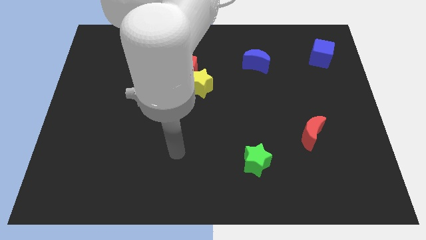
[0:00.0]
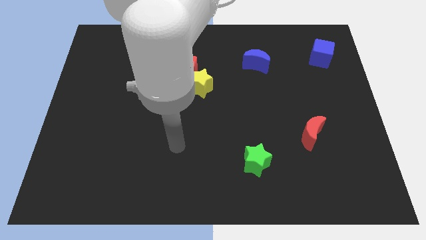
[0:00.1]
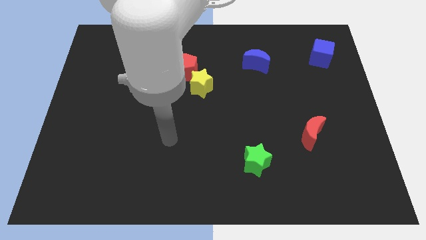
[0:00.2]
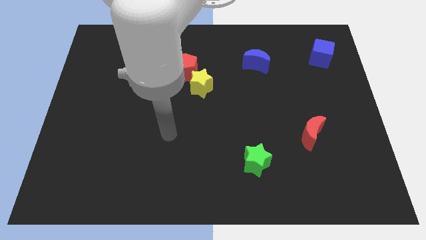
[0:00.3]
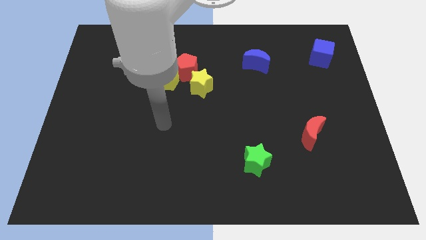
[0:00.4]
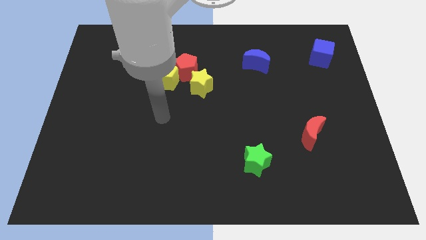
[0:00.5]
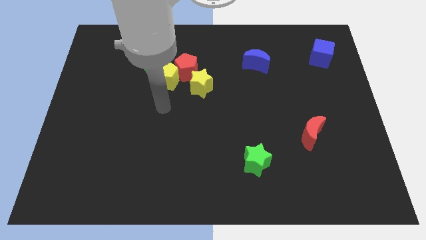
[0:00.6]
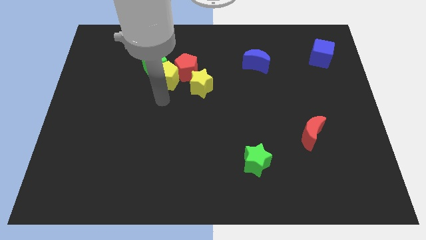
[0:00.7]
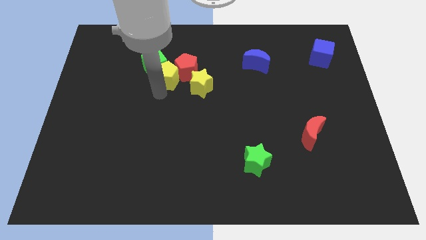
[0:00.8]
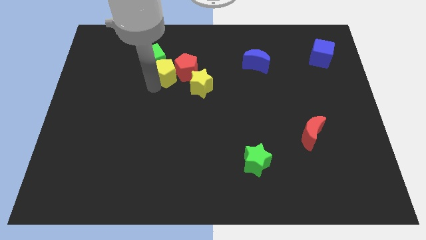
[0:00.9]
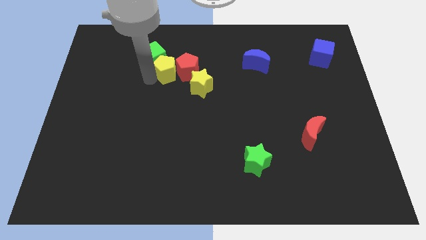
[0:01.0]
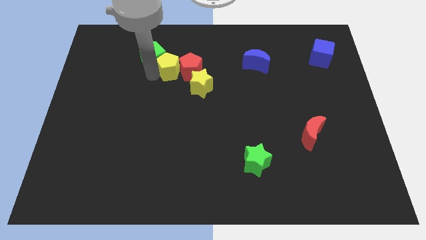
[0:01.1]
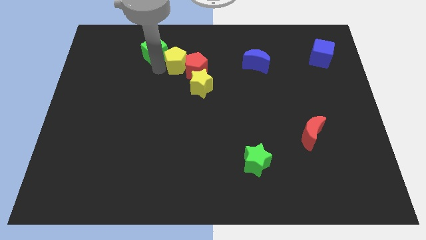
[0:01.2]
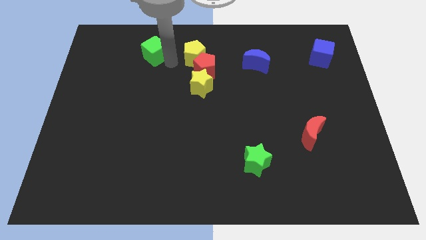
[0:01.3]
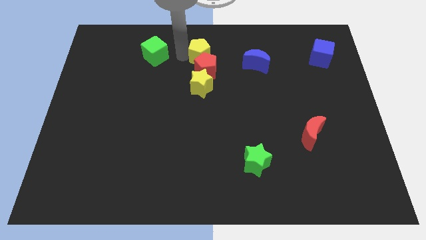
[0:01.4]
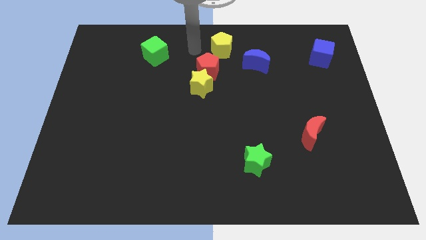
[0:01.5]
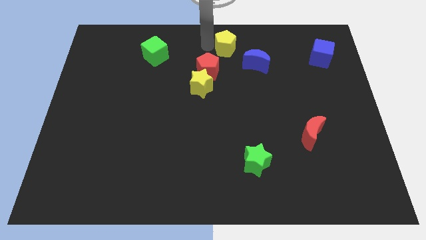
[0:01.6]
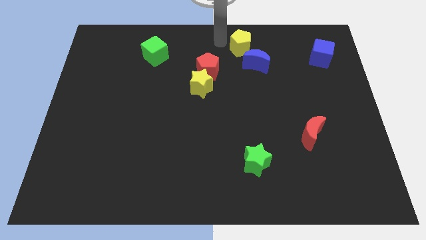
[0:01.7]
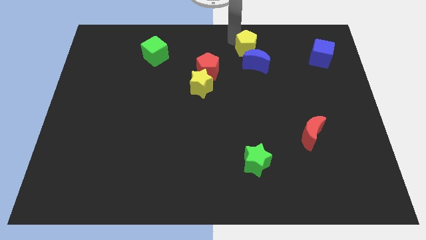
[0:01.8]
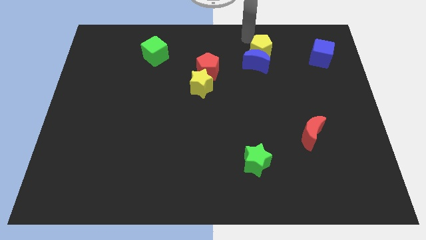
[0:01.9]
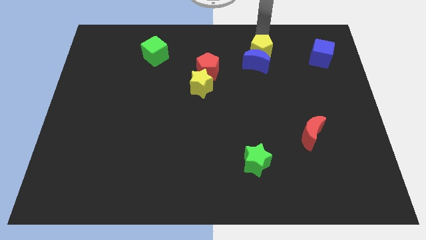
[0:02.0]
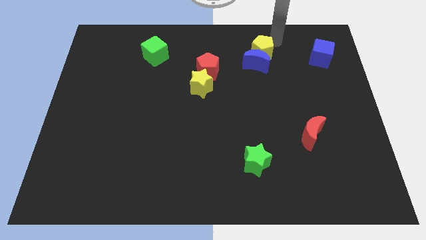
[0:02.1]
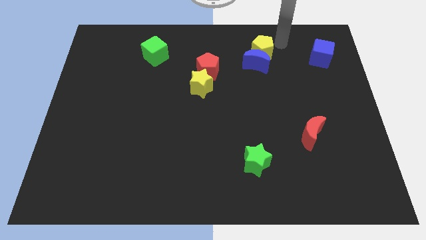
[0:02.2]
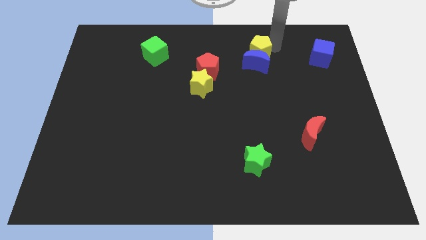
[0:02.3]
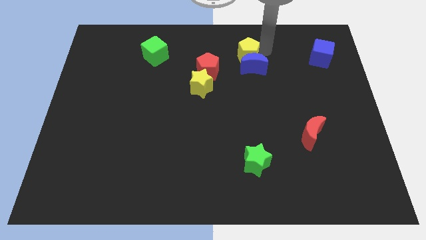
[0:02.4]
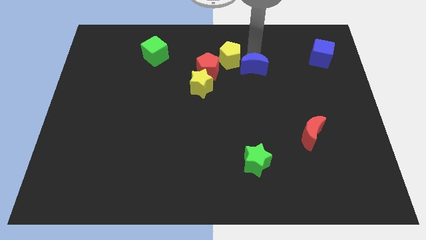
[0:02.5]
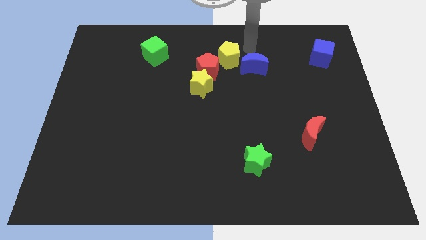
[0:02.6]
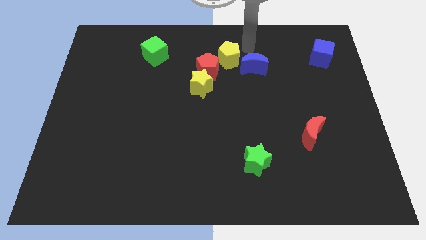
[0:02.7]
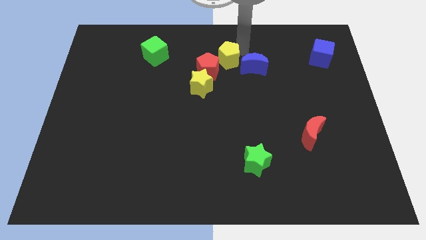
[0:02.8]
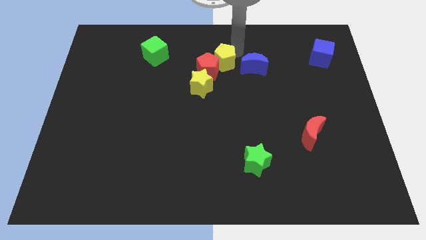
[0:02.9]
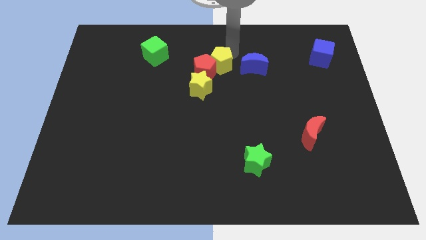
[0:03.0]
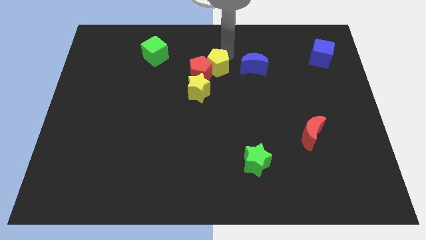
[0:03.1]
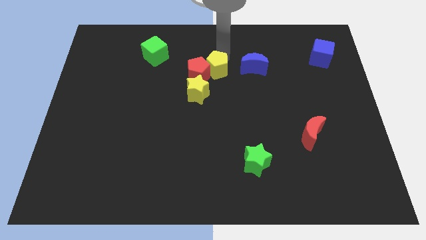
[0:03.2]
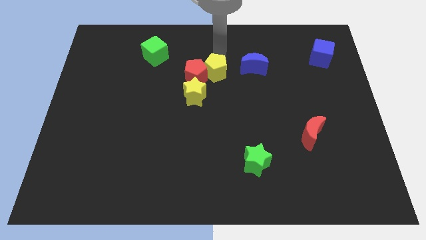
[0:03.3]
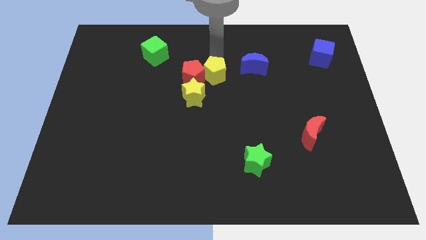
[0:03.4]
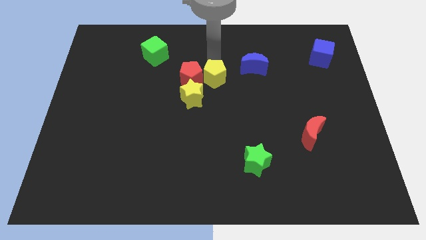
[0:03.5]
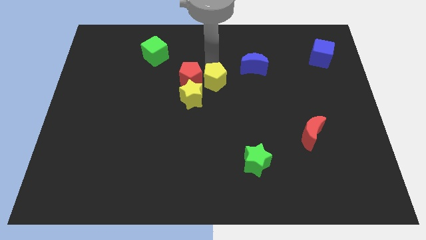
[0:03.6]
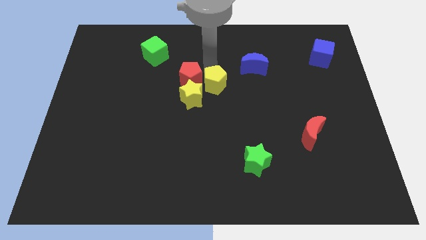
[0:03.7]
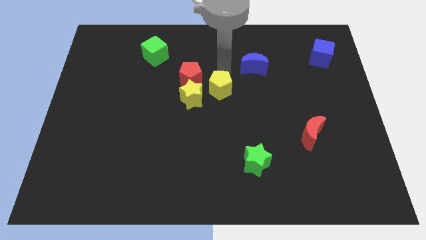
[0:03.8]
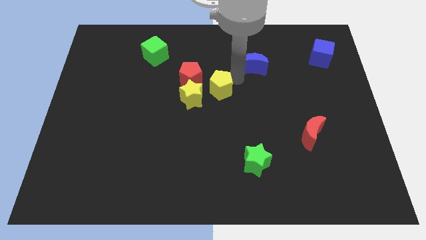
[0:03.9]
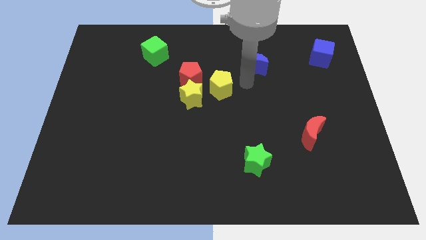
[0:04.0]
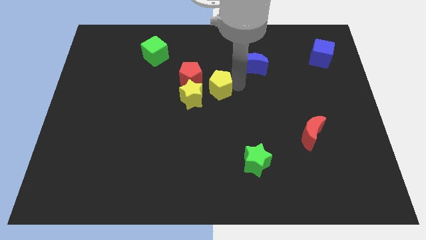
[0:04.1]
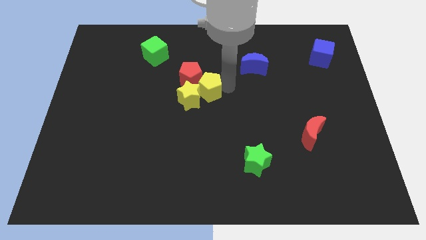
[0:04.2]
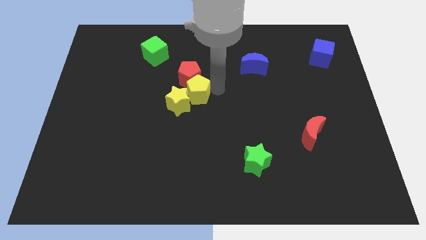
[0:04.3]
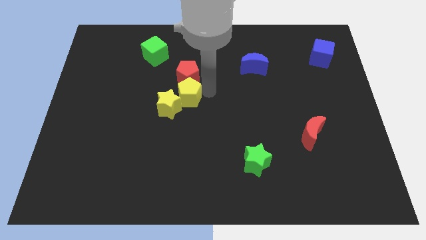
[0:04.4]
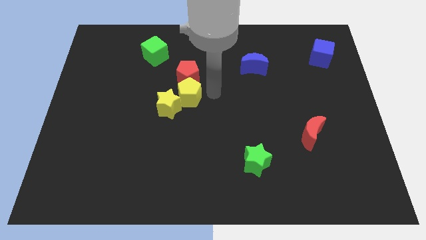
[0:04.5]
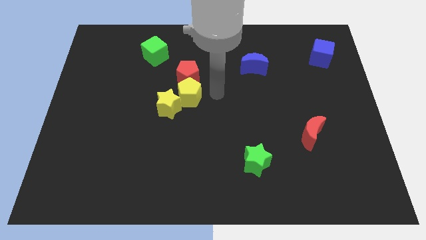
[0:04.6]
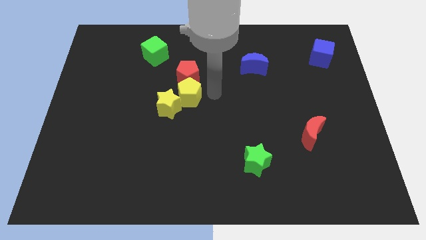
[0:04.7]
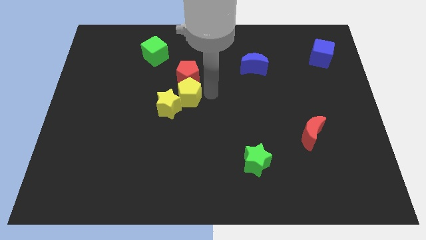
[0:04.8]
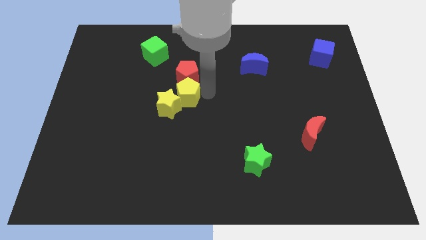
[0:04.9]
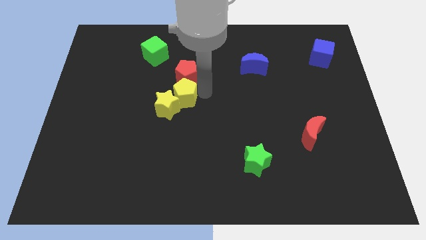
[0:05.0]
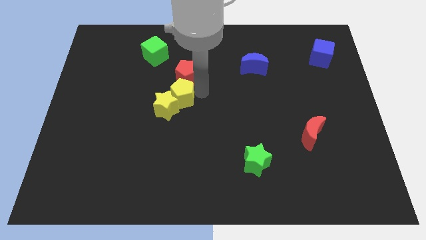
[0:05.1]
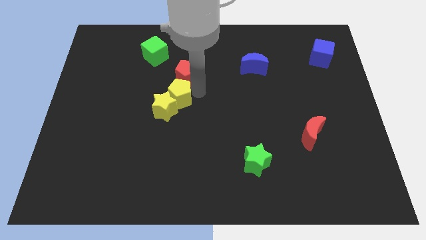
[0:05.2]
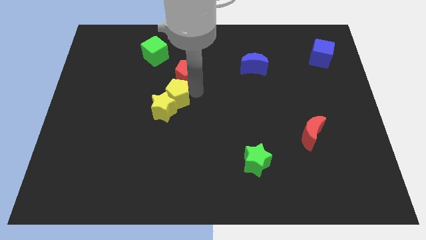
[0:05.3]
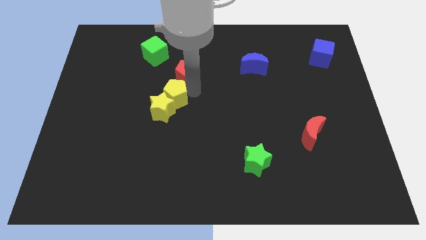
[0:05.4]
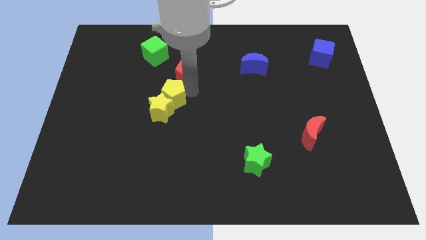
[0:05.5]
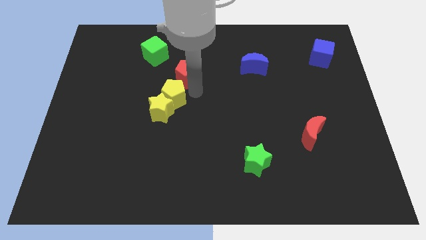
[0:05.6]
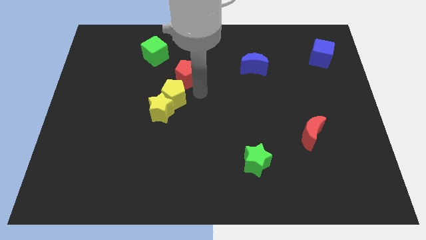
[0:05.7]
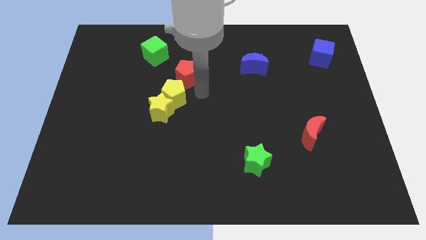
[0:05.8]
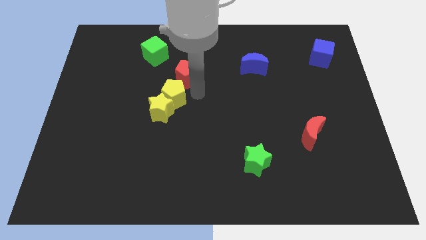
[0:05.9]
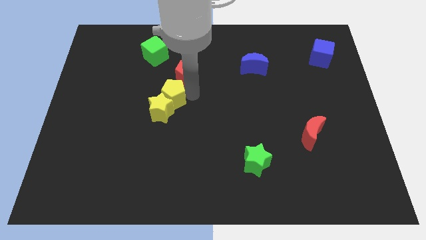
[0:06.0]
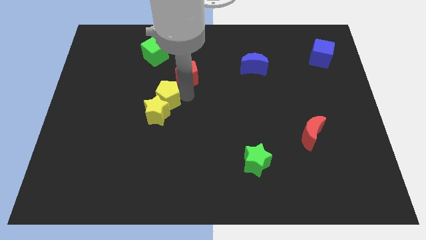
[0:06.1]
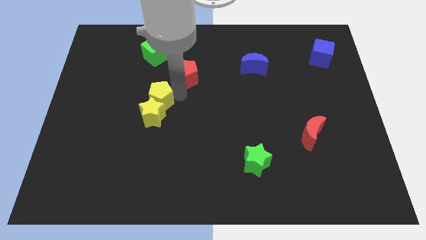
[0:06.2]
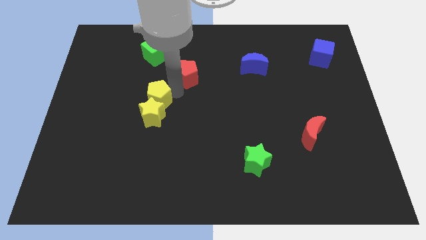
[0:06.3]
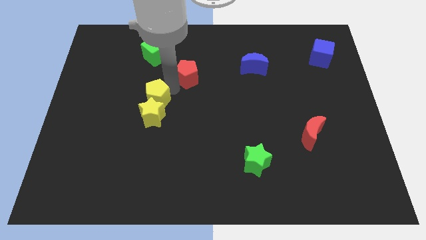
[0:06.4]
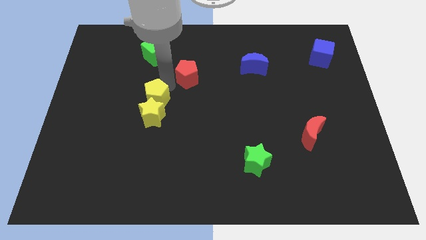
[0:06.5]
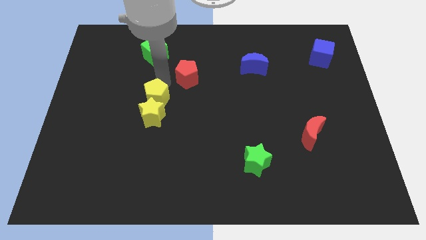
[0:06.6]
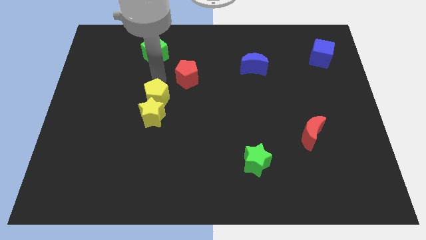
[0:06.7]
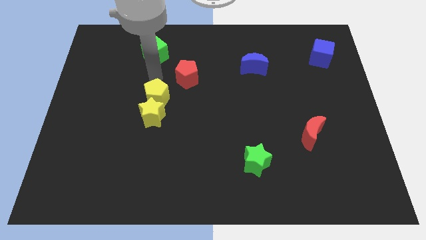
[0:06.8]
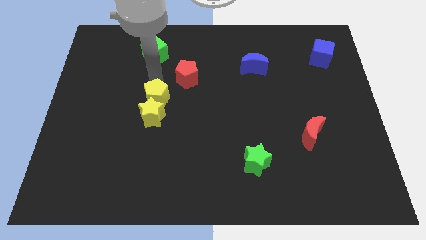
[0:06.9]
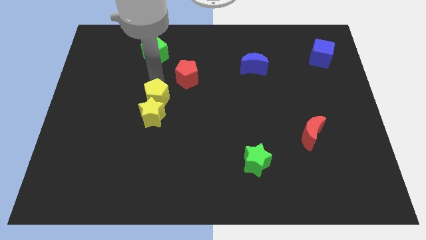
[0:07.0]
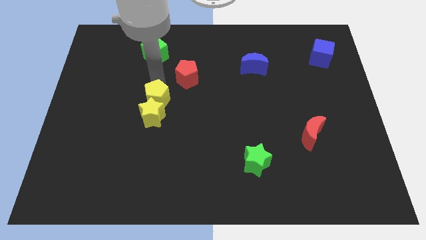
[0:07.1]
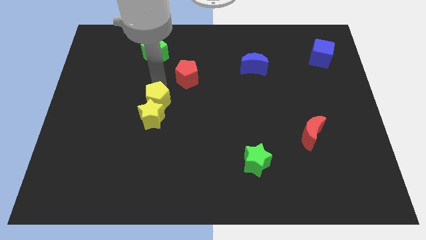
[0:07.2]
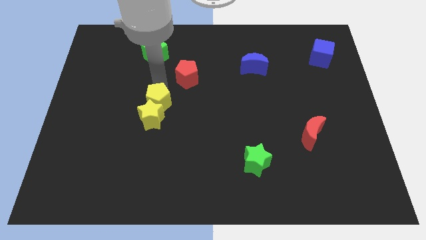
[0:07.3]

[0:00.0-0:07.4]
move the yellow pentagon a little bit down

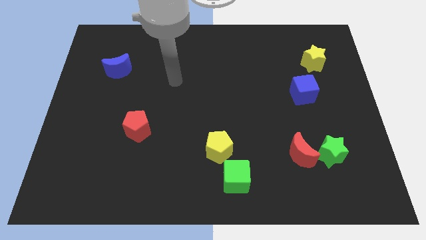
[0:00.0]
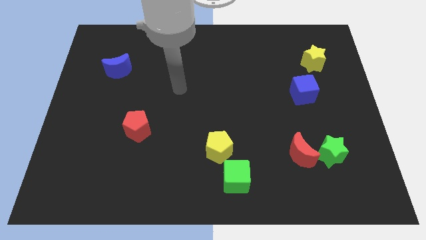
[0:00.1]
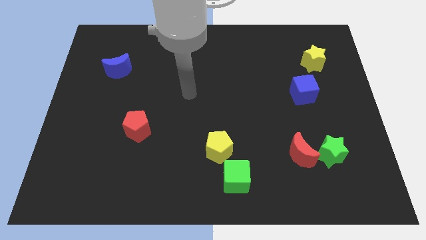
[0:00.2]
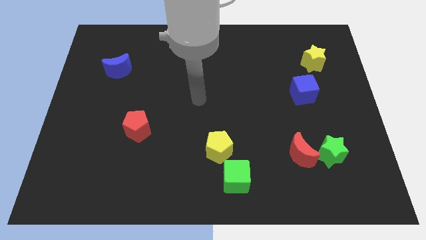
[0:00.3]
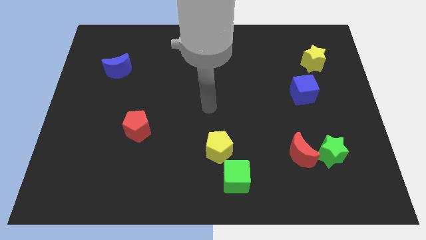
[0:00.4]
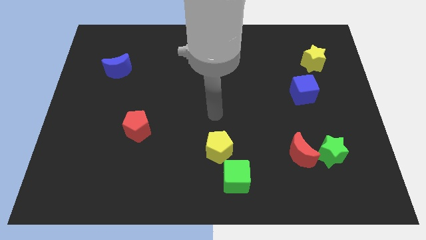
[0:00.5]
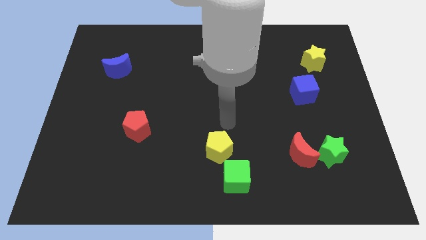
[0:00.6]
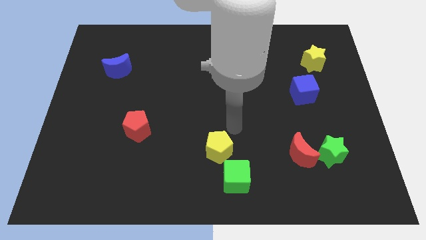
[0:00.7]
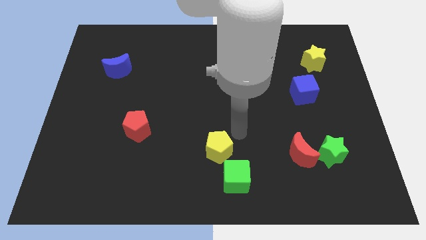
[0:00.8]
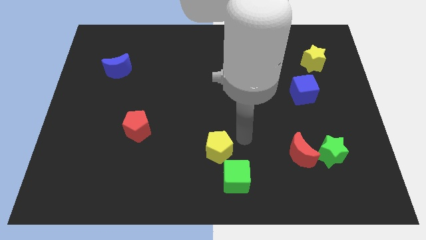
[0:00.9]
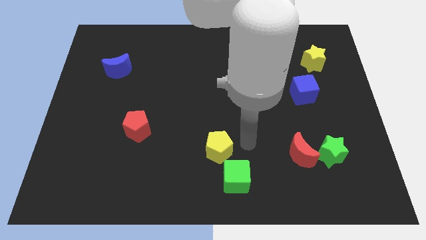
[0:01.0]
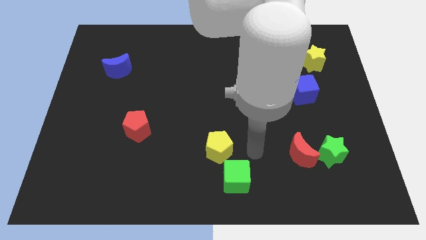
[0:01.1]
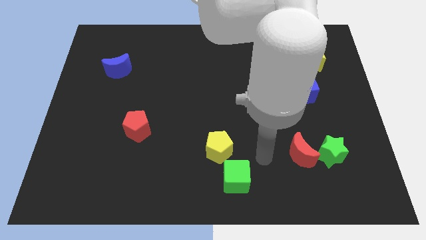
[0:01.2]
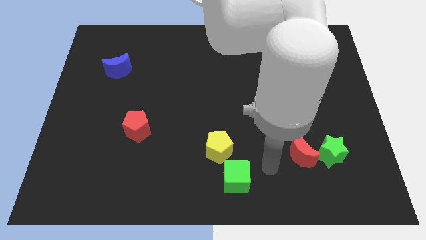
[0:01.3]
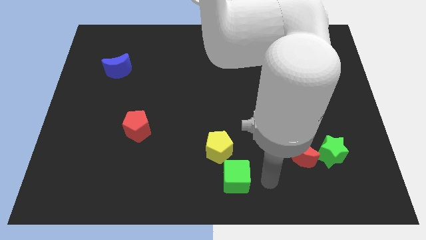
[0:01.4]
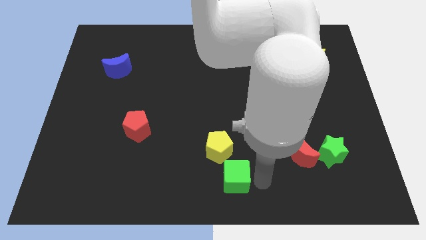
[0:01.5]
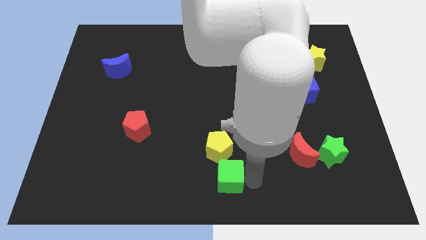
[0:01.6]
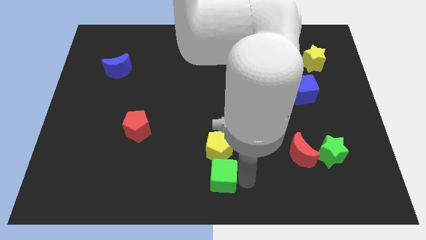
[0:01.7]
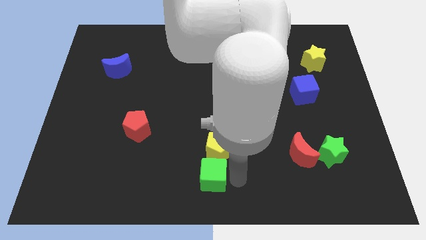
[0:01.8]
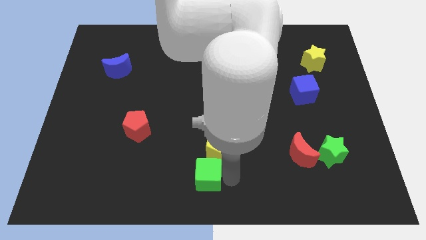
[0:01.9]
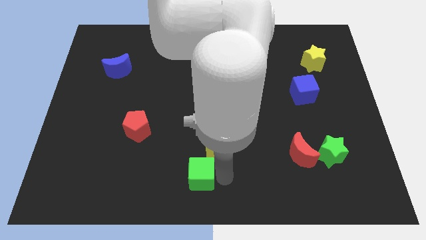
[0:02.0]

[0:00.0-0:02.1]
slightly push the green cube left
